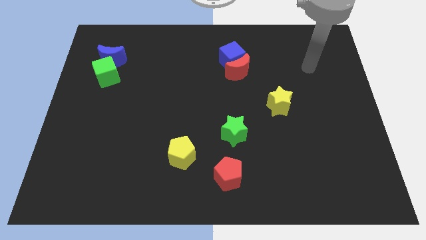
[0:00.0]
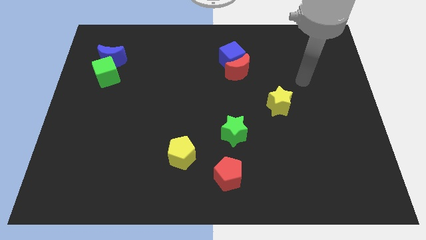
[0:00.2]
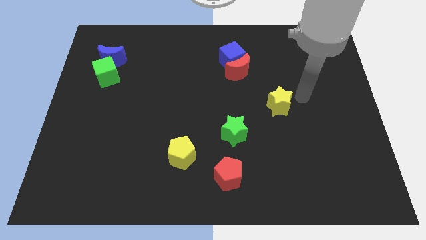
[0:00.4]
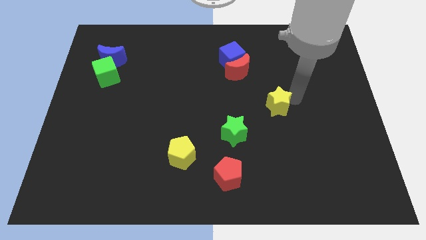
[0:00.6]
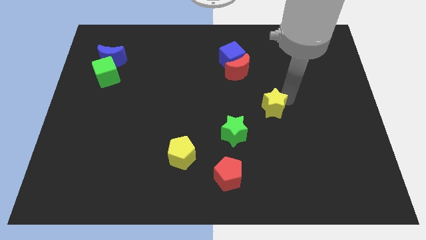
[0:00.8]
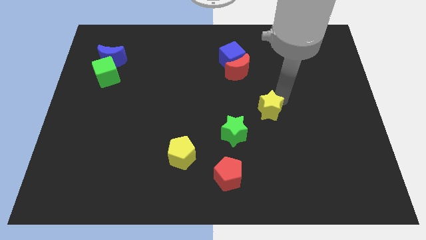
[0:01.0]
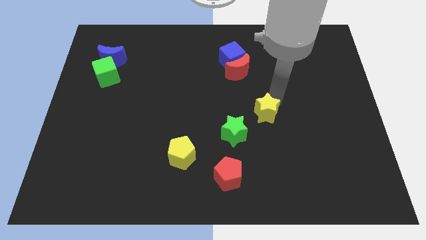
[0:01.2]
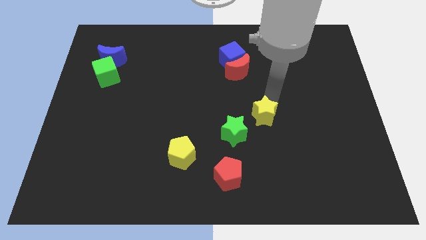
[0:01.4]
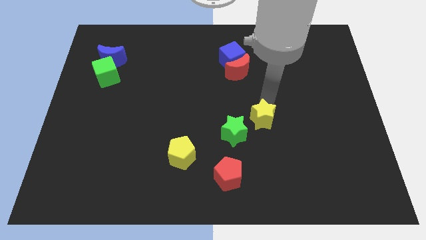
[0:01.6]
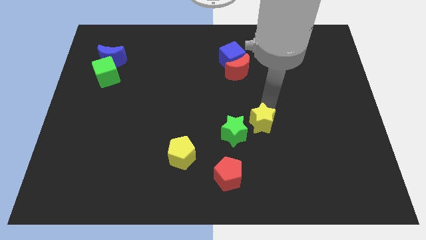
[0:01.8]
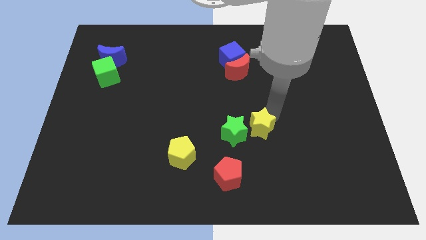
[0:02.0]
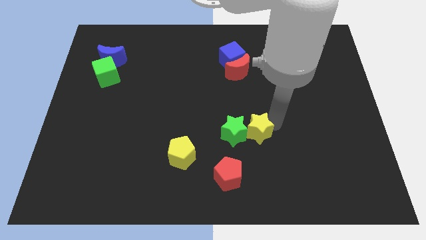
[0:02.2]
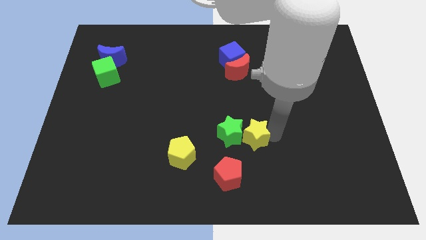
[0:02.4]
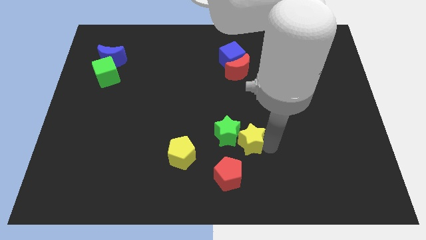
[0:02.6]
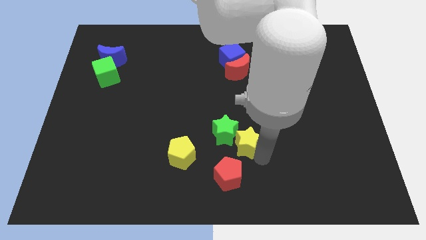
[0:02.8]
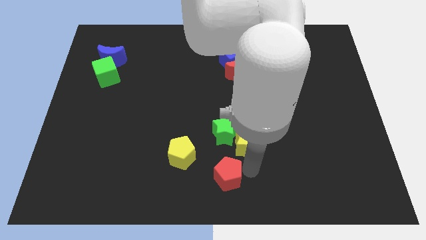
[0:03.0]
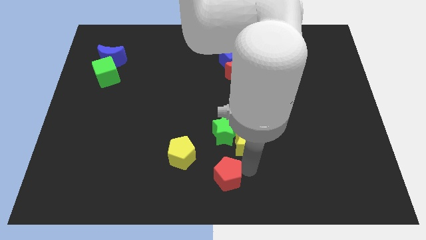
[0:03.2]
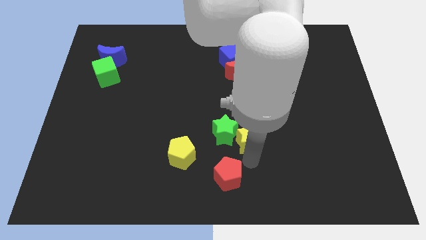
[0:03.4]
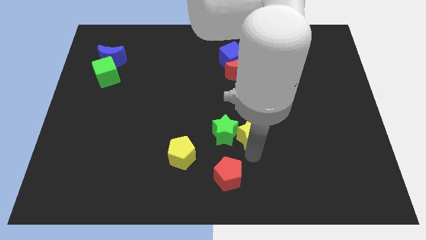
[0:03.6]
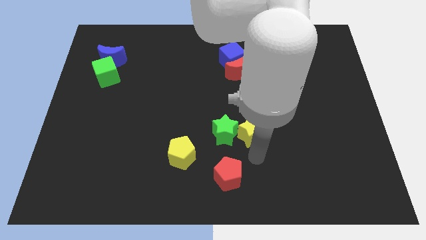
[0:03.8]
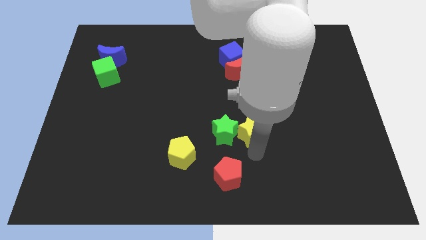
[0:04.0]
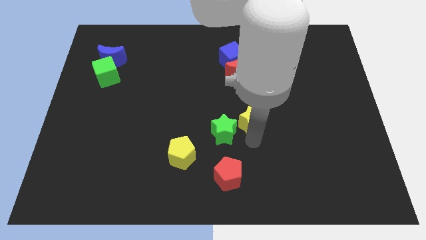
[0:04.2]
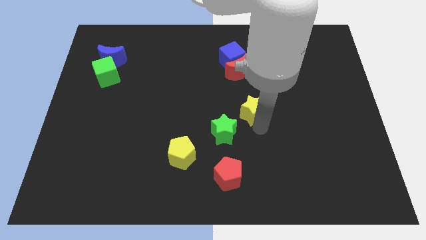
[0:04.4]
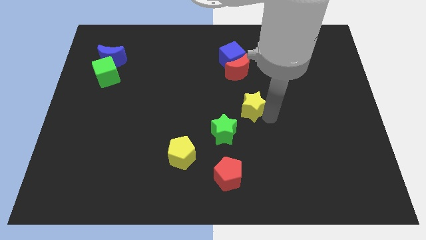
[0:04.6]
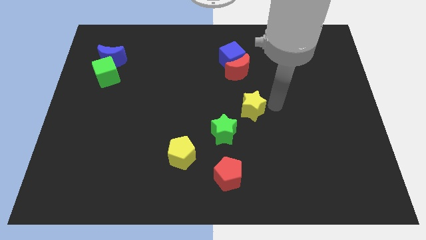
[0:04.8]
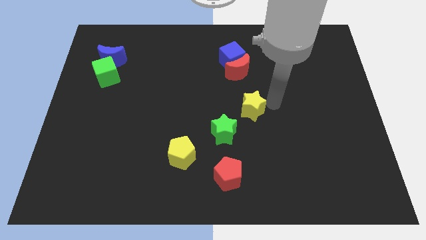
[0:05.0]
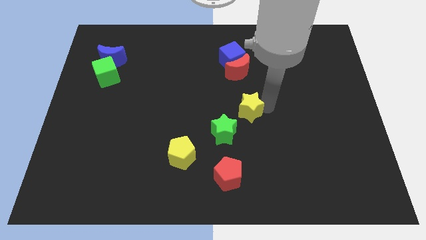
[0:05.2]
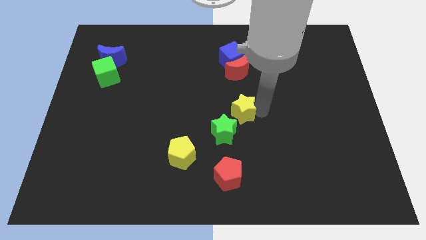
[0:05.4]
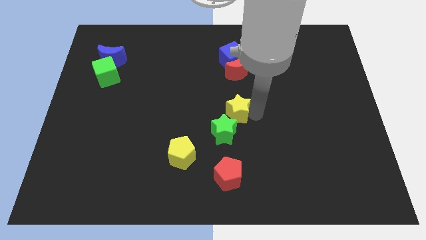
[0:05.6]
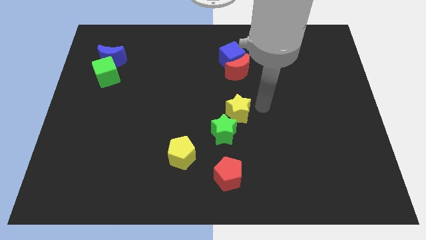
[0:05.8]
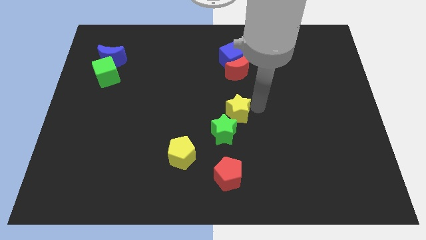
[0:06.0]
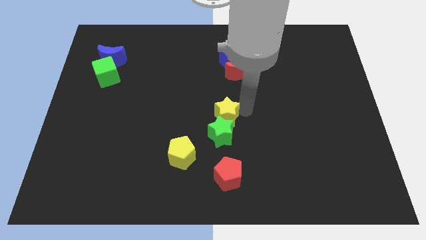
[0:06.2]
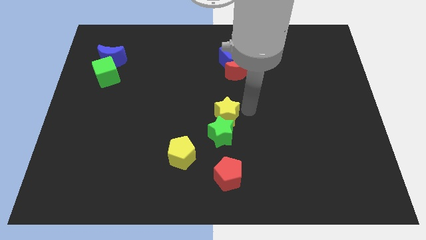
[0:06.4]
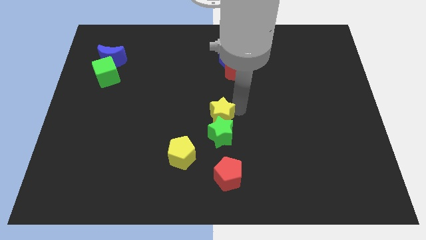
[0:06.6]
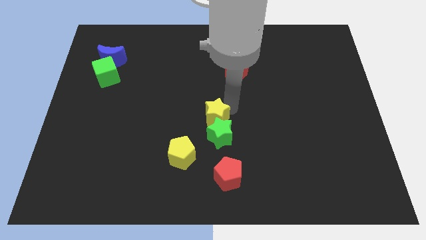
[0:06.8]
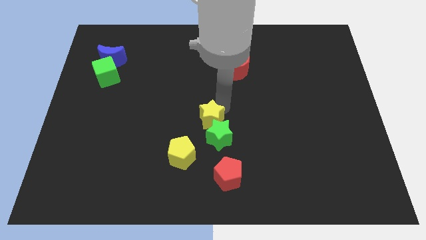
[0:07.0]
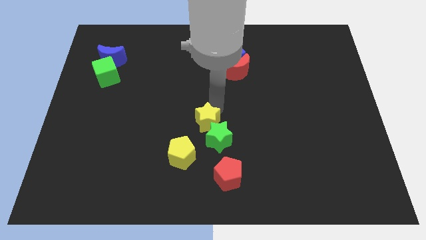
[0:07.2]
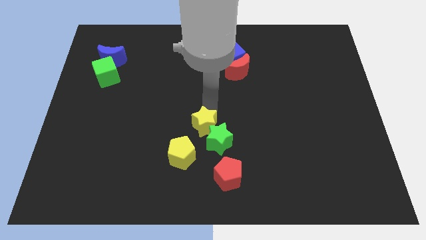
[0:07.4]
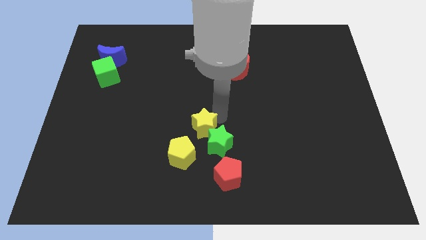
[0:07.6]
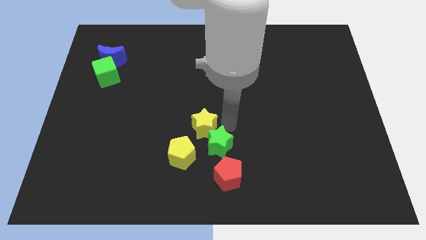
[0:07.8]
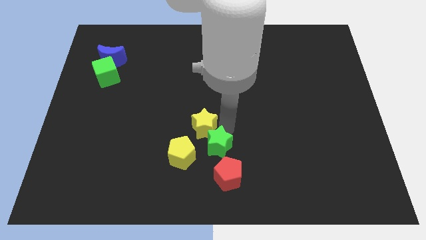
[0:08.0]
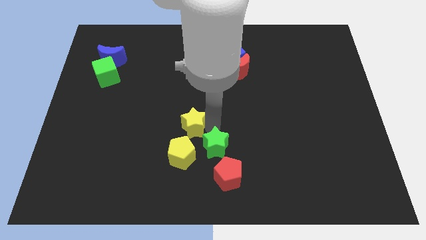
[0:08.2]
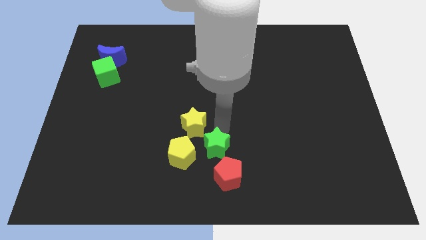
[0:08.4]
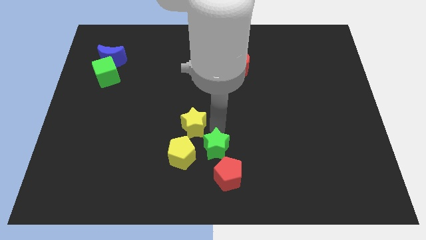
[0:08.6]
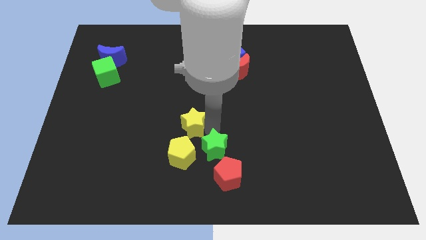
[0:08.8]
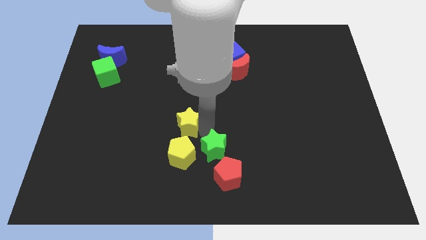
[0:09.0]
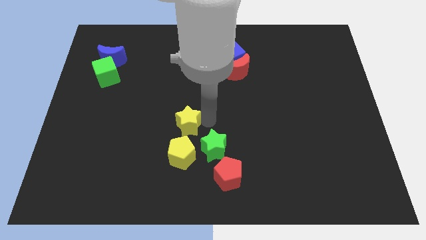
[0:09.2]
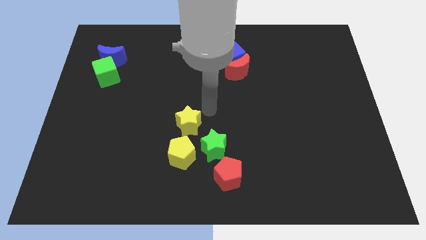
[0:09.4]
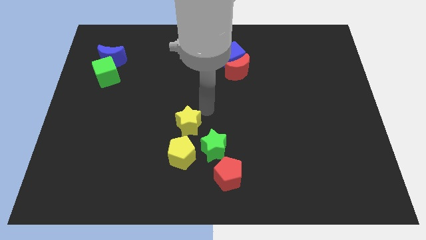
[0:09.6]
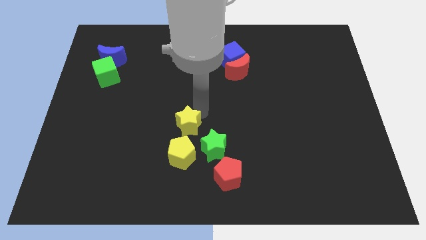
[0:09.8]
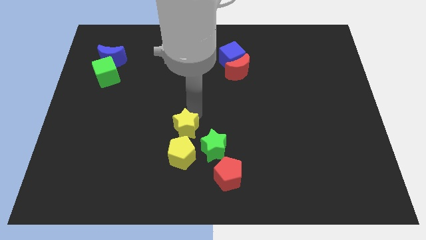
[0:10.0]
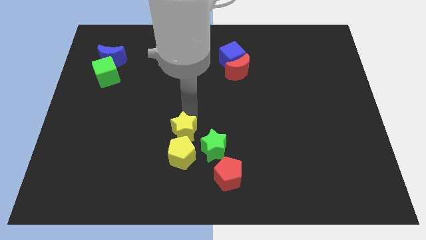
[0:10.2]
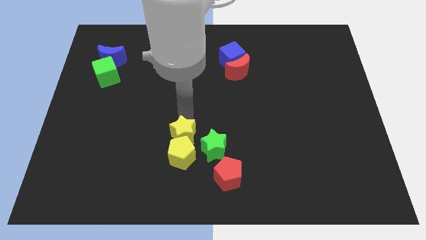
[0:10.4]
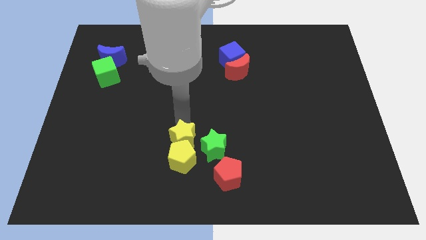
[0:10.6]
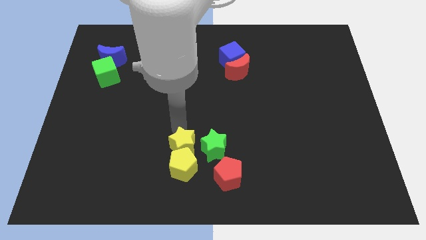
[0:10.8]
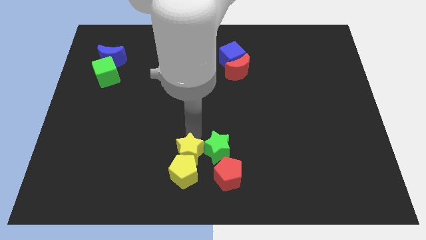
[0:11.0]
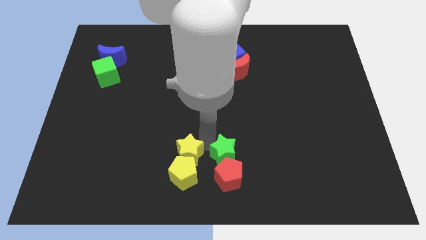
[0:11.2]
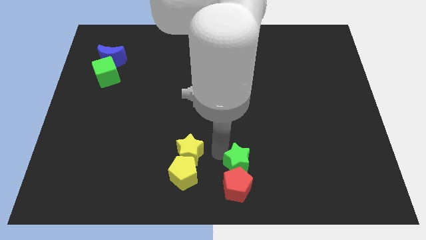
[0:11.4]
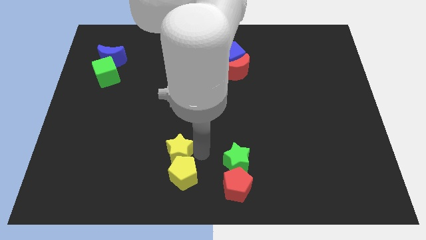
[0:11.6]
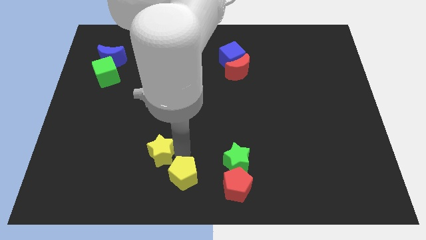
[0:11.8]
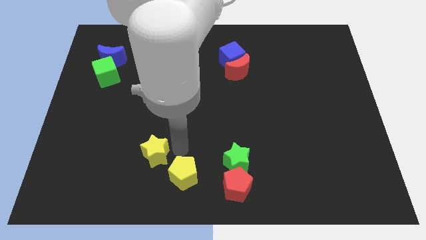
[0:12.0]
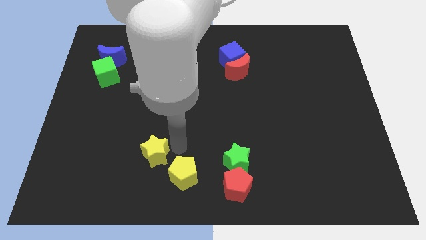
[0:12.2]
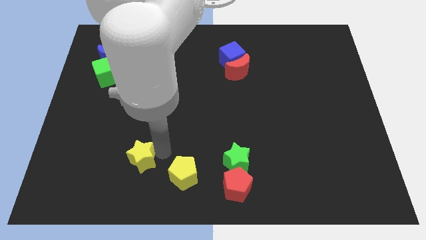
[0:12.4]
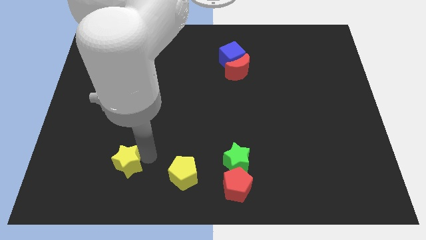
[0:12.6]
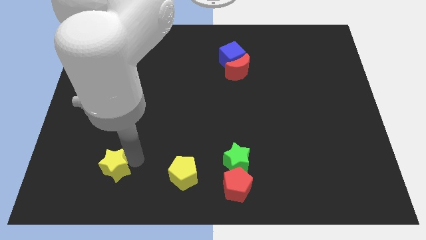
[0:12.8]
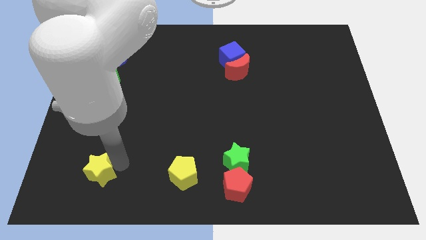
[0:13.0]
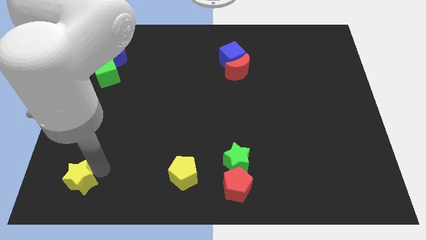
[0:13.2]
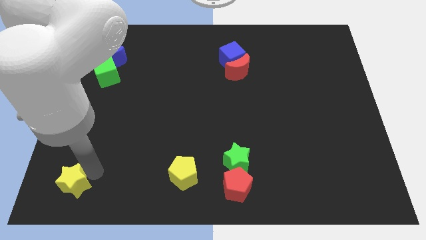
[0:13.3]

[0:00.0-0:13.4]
move the yellow star to the lower left corner
